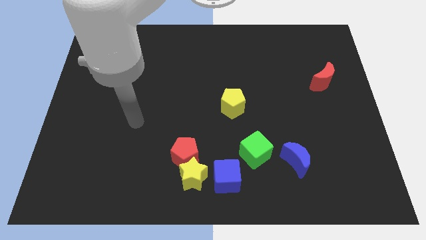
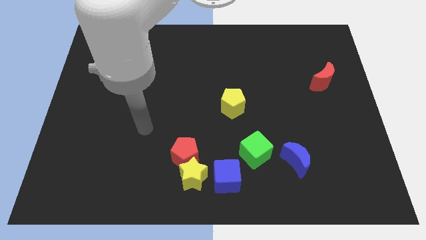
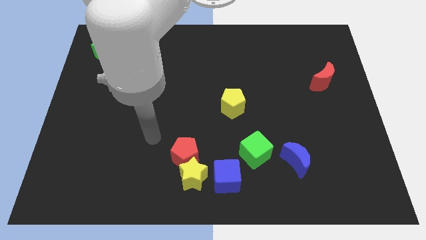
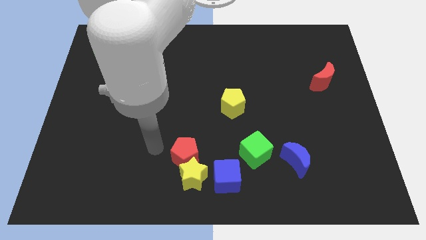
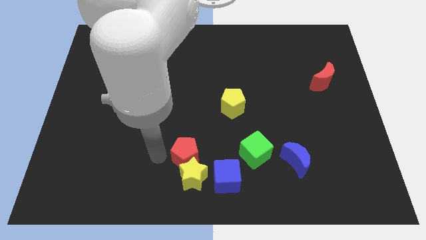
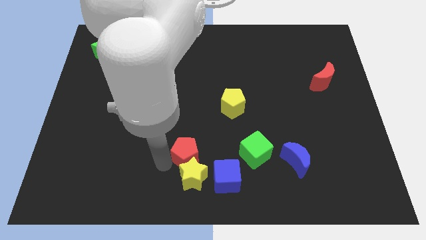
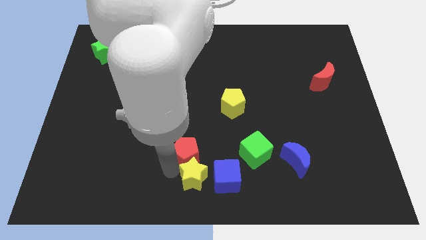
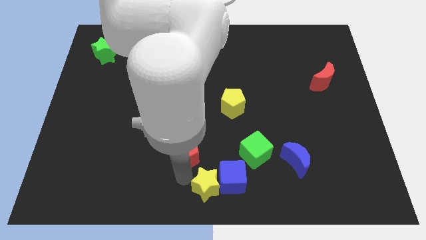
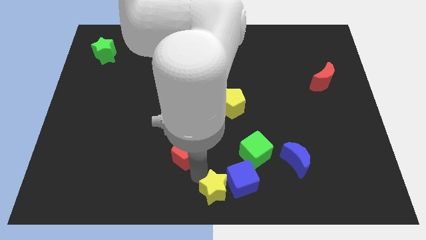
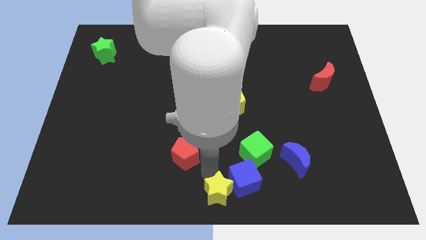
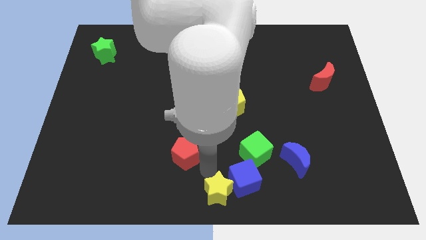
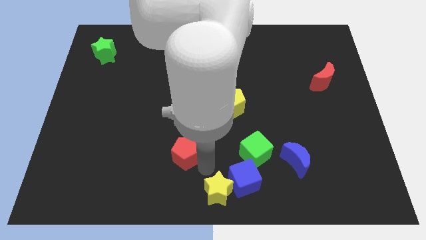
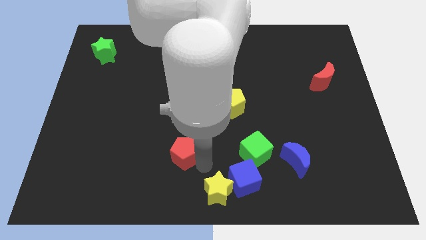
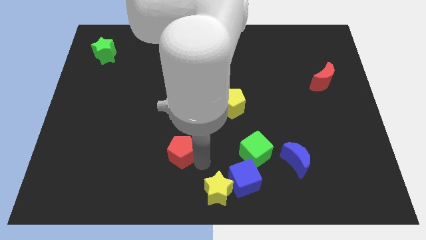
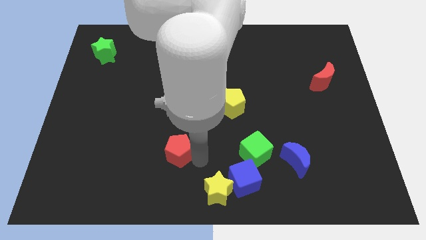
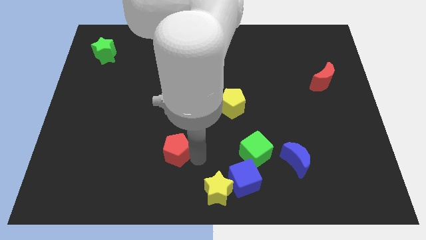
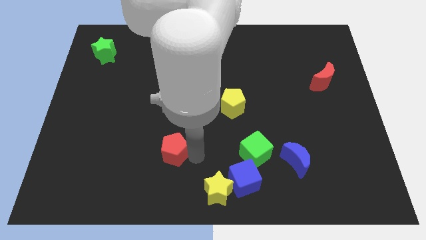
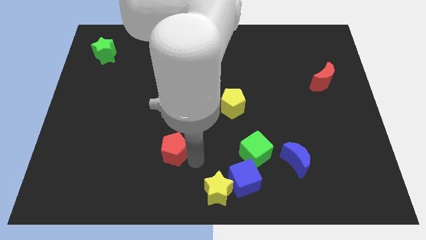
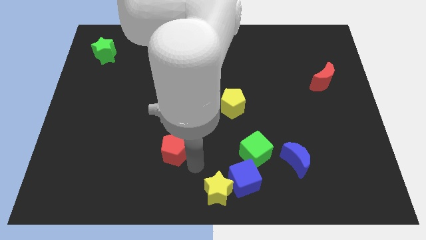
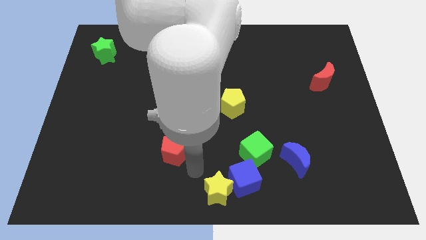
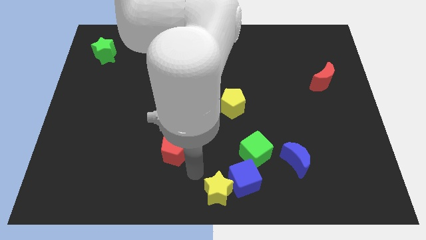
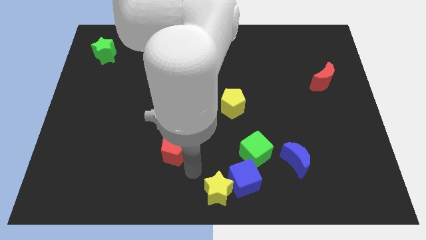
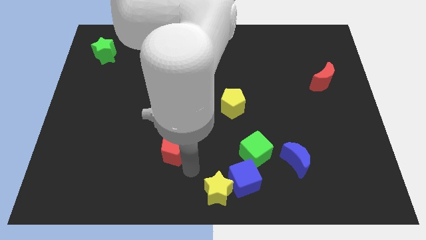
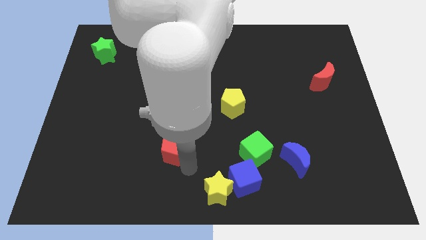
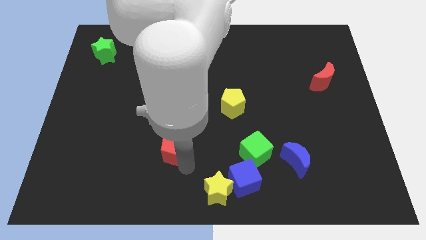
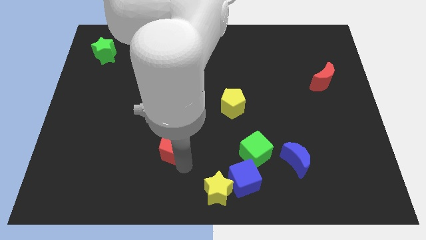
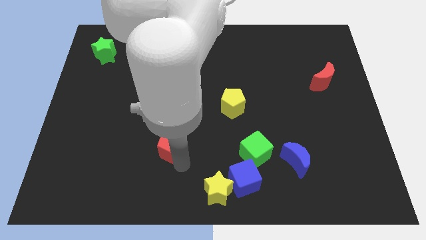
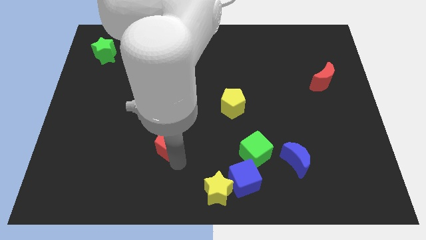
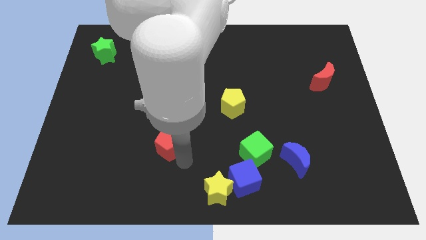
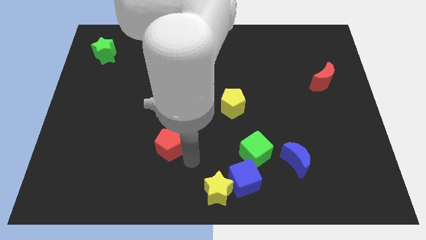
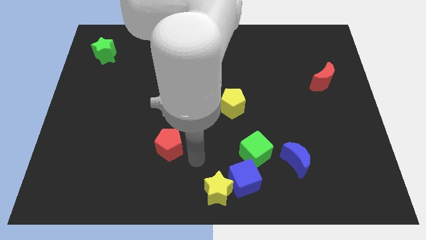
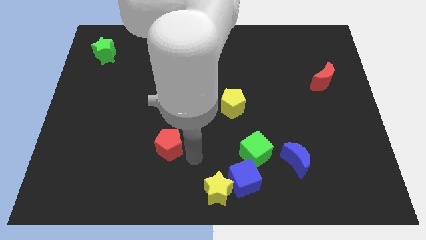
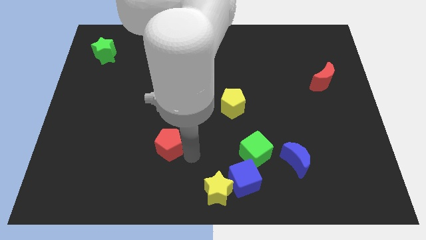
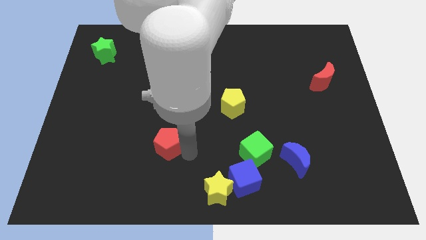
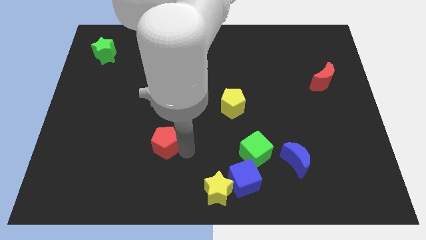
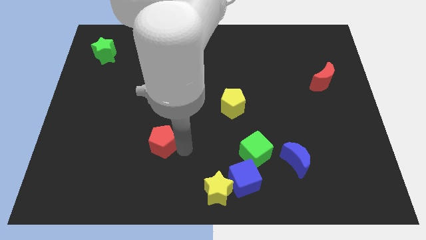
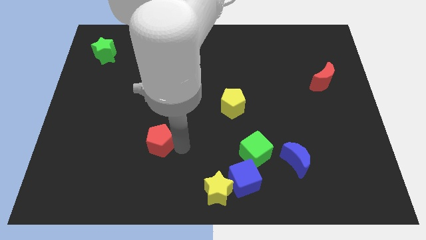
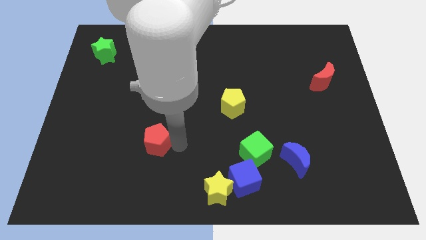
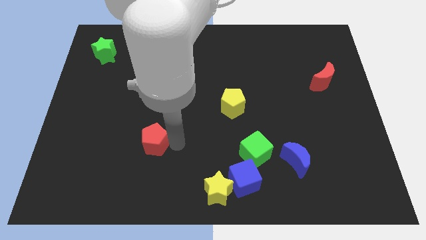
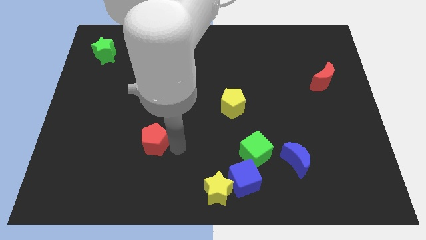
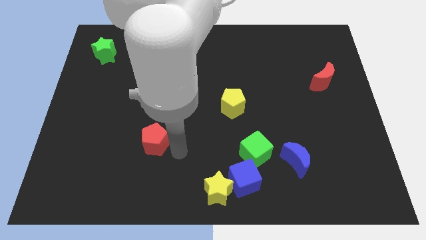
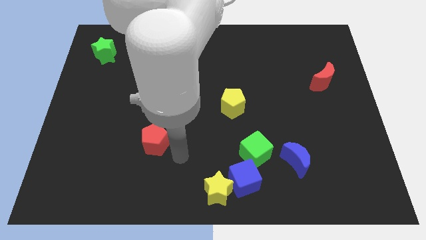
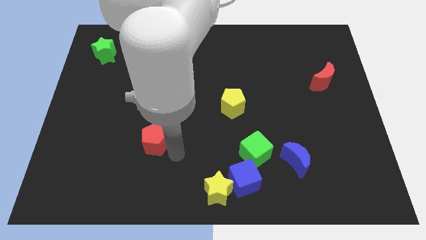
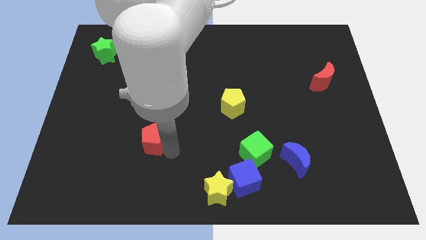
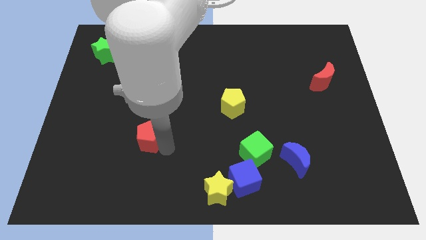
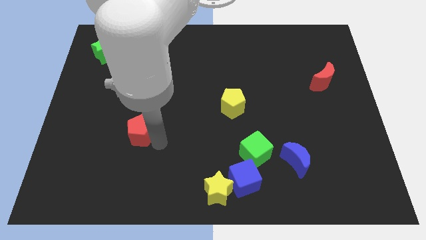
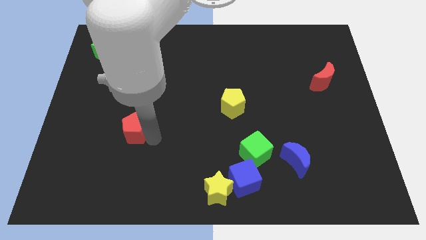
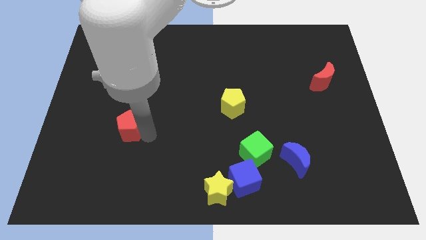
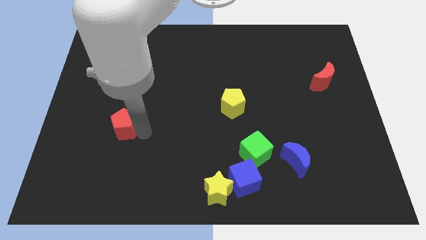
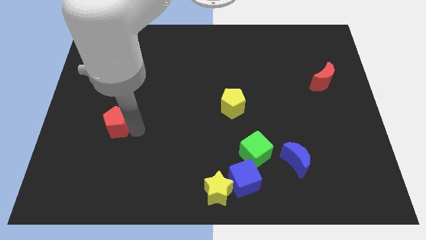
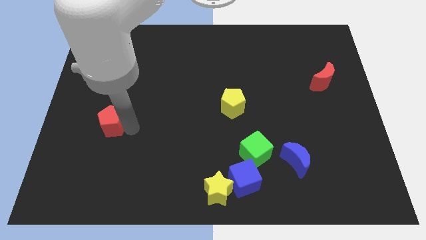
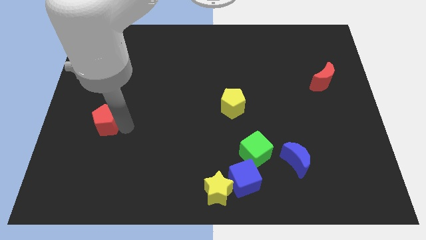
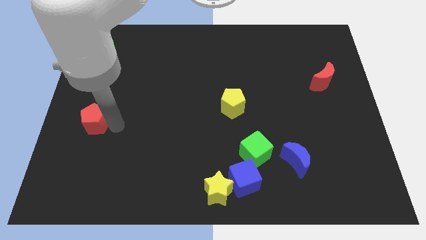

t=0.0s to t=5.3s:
slide the red pentagon to the center left

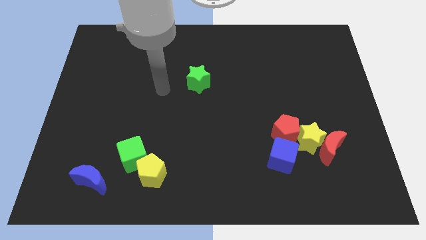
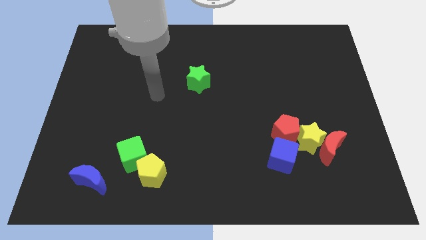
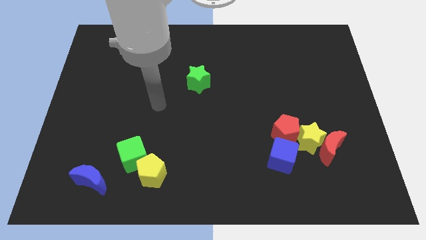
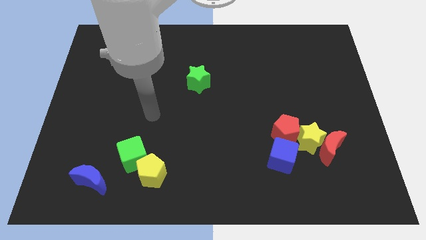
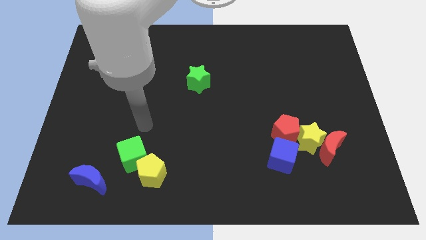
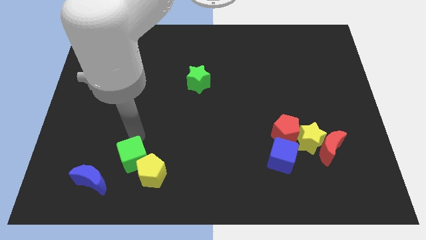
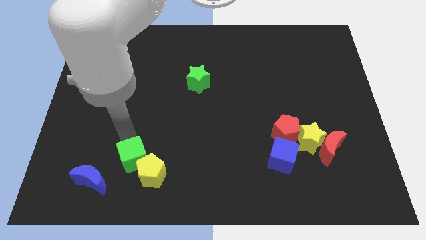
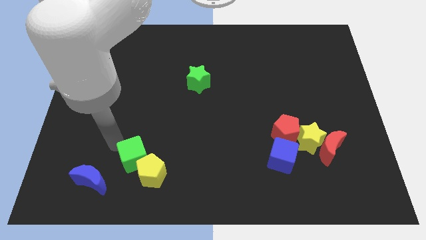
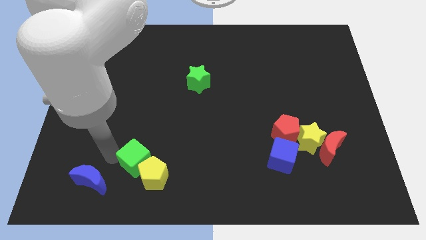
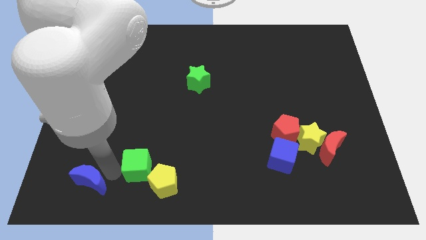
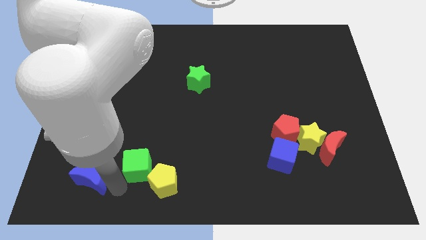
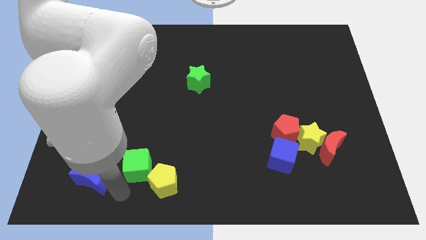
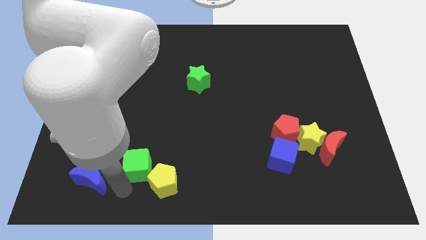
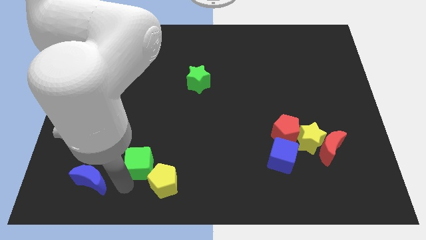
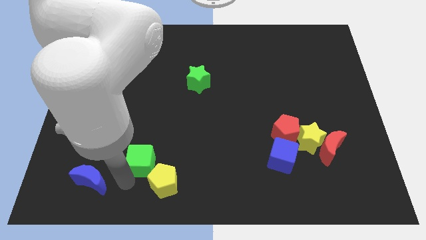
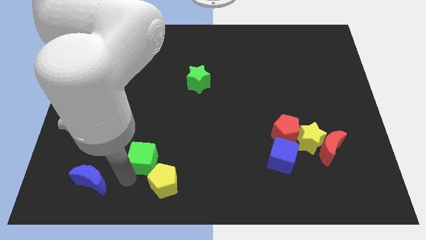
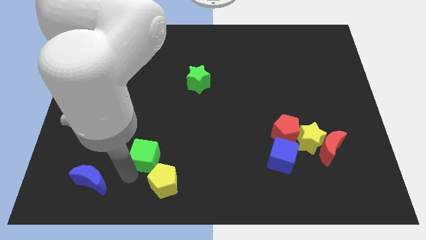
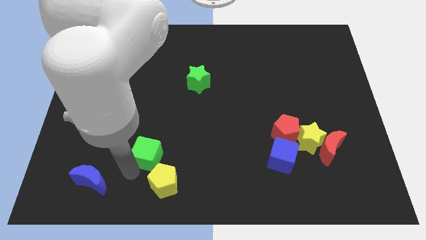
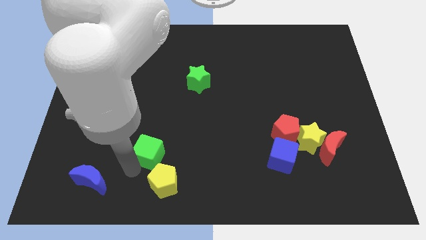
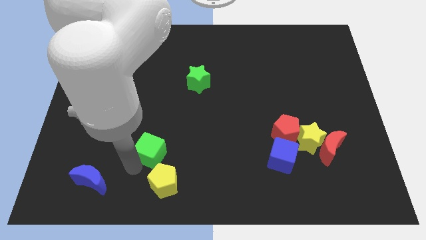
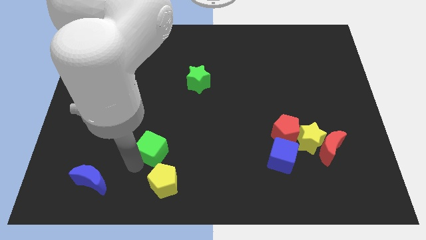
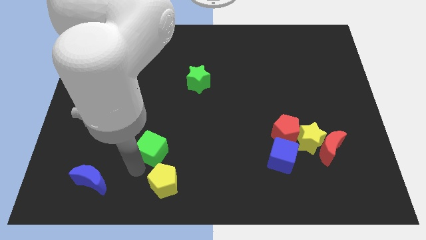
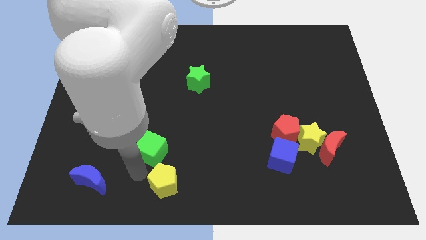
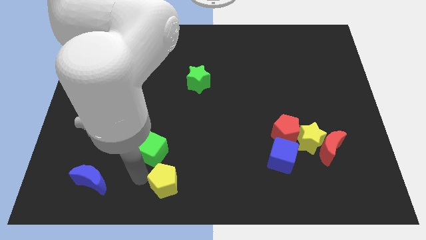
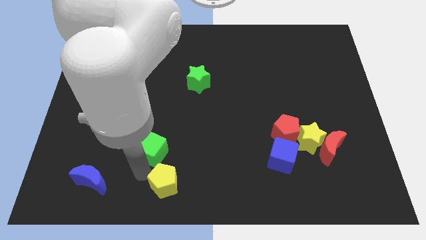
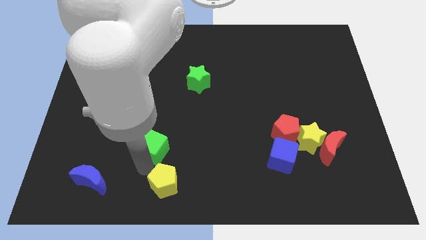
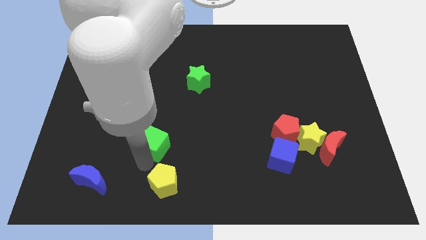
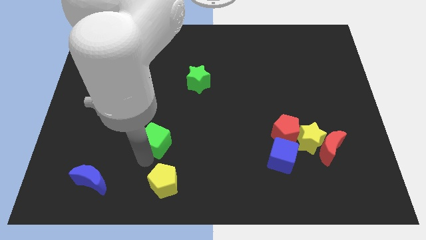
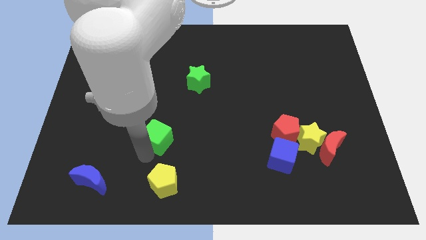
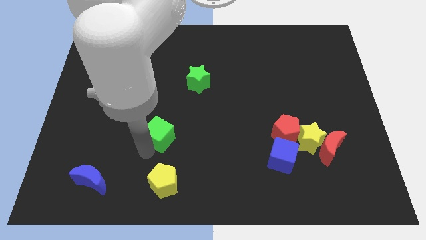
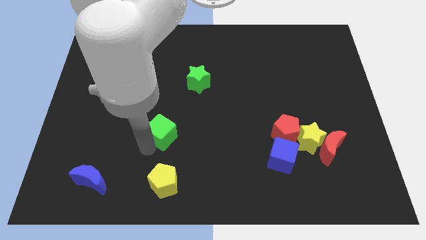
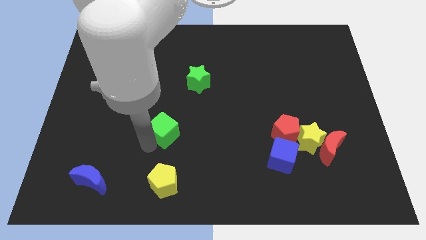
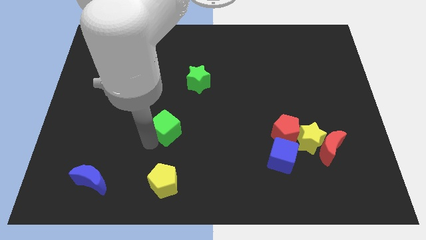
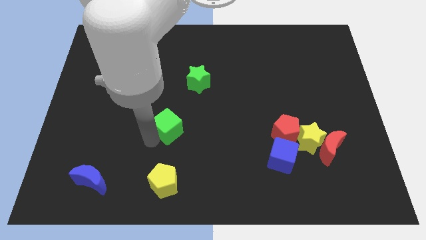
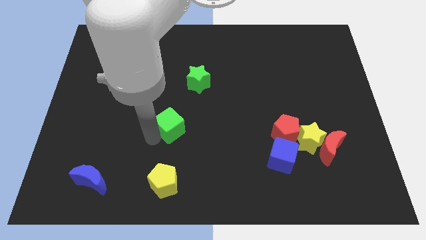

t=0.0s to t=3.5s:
move the green cube to the middle
